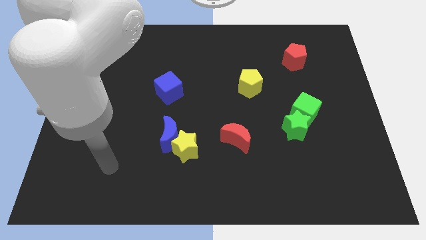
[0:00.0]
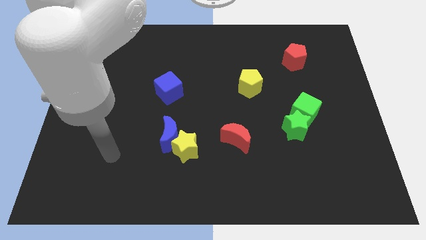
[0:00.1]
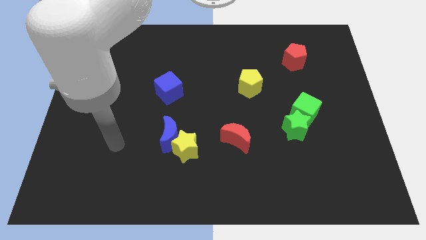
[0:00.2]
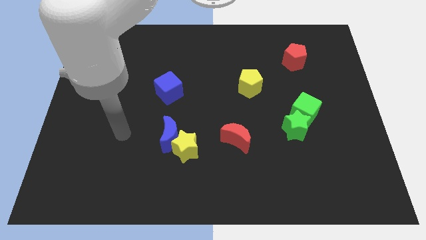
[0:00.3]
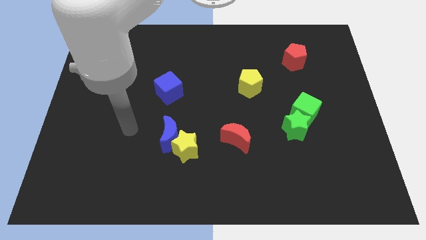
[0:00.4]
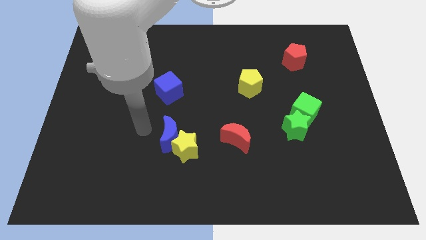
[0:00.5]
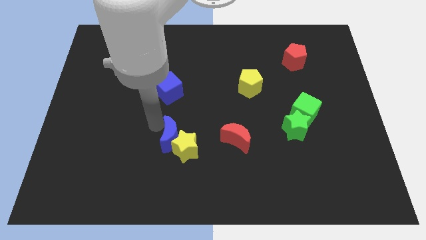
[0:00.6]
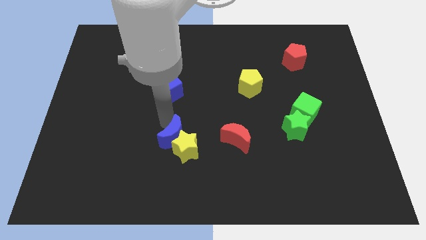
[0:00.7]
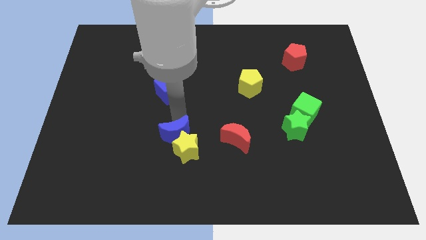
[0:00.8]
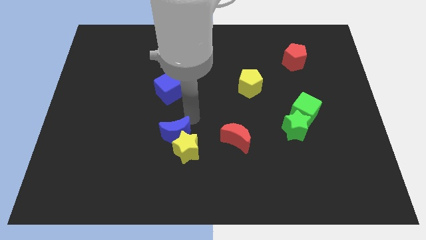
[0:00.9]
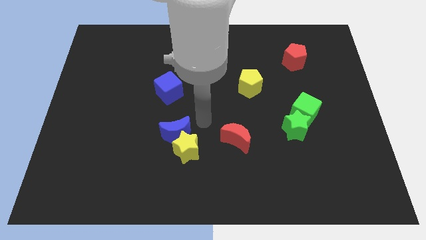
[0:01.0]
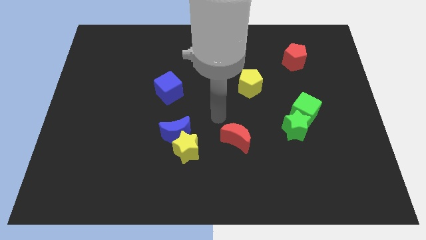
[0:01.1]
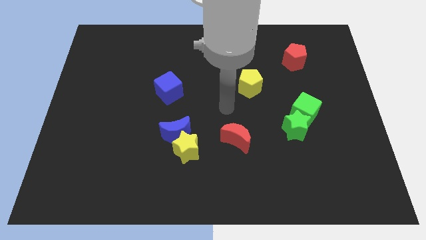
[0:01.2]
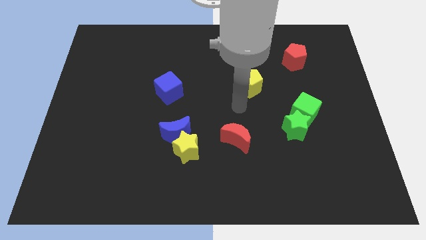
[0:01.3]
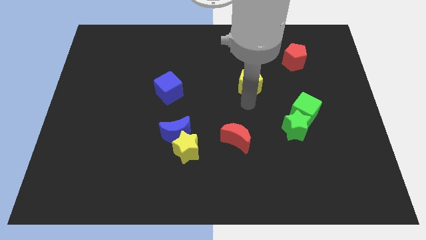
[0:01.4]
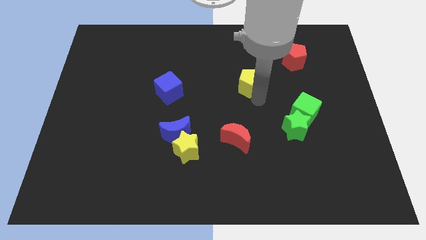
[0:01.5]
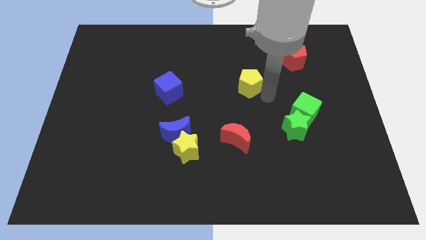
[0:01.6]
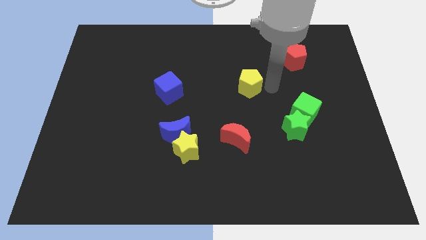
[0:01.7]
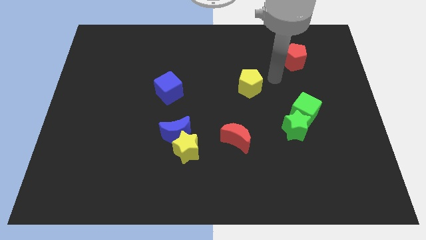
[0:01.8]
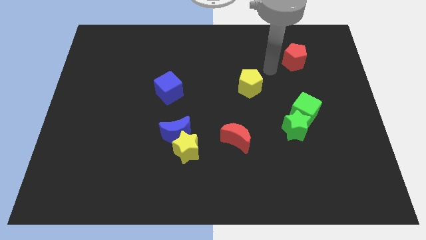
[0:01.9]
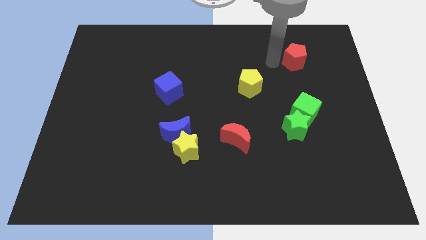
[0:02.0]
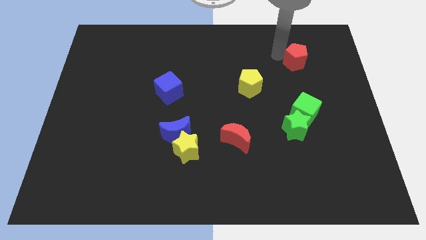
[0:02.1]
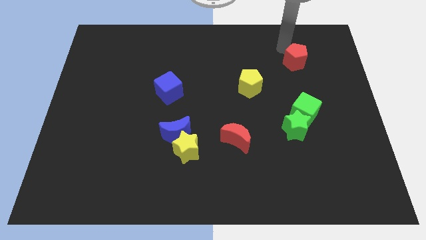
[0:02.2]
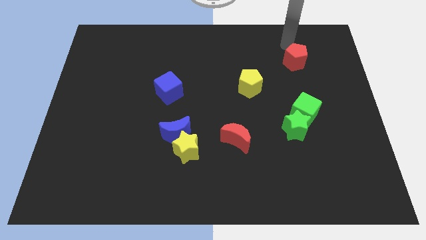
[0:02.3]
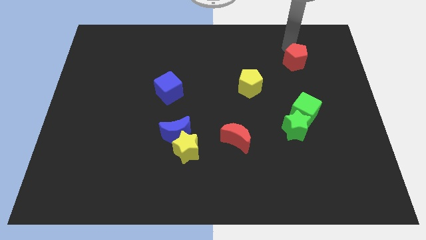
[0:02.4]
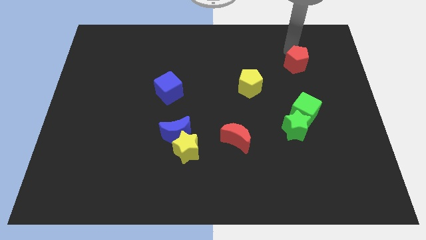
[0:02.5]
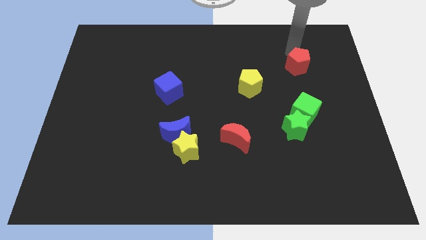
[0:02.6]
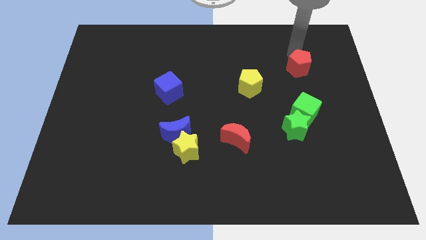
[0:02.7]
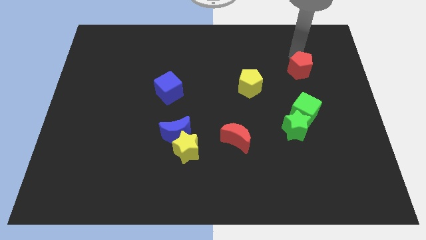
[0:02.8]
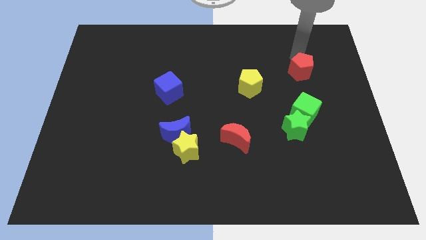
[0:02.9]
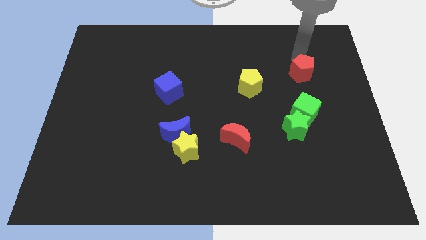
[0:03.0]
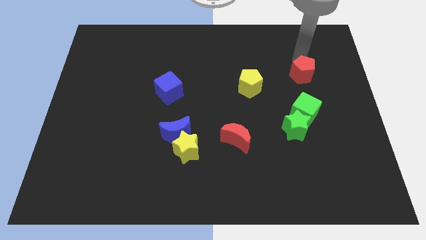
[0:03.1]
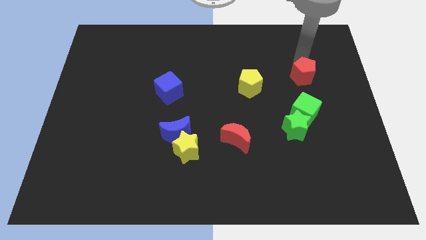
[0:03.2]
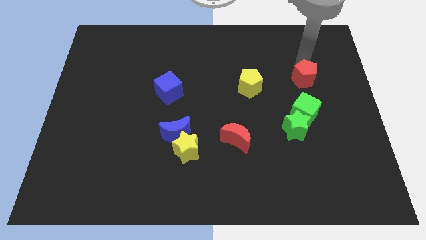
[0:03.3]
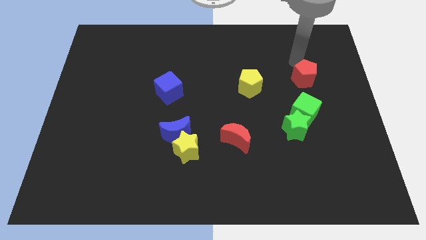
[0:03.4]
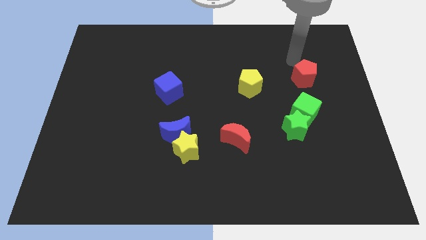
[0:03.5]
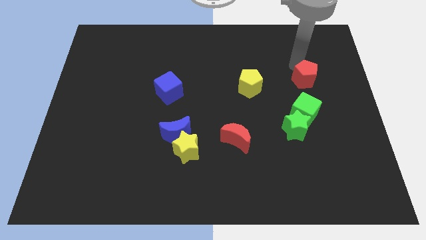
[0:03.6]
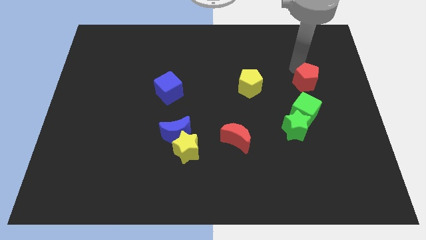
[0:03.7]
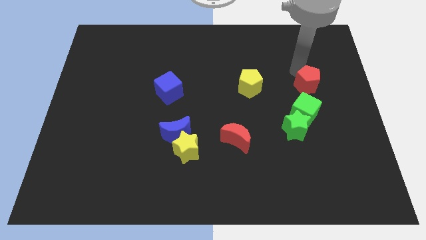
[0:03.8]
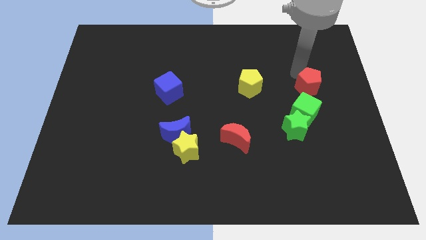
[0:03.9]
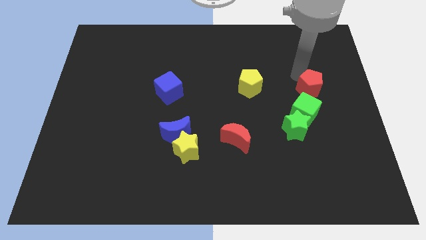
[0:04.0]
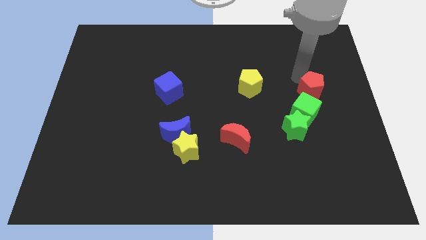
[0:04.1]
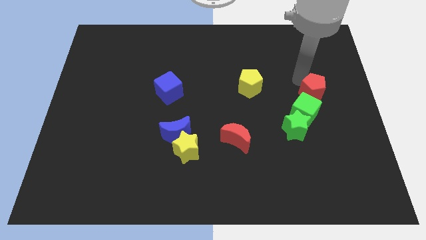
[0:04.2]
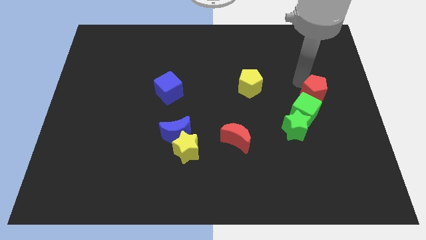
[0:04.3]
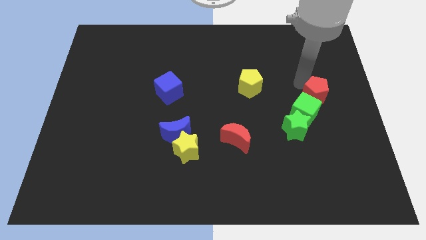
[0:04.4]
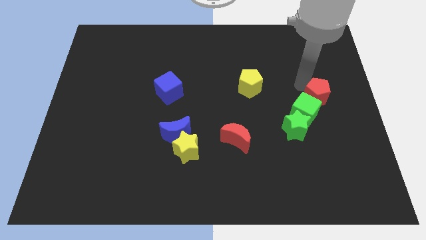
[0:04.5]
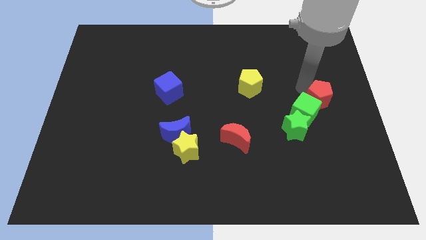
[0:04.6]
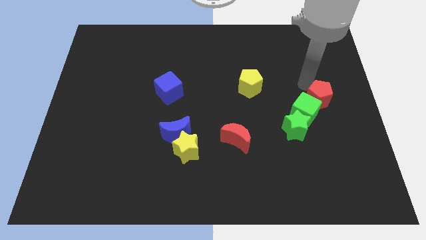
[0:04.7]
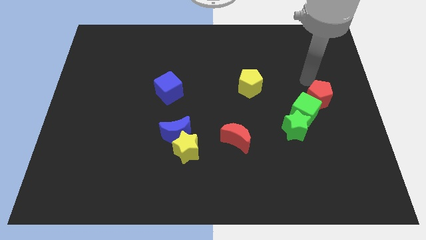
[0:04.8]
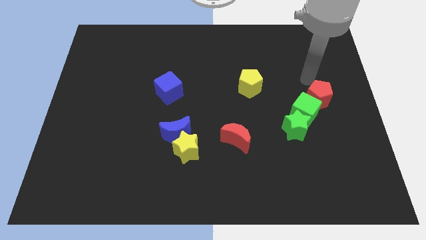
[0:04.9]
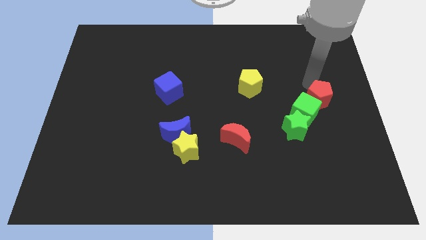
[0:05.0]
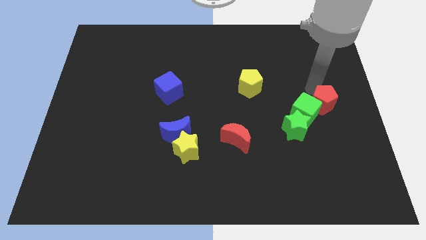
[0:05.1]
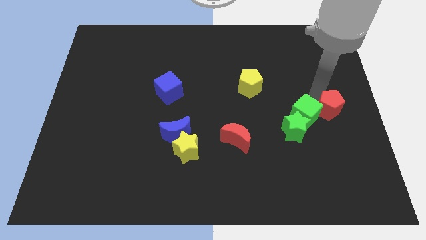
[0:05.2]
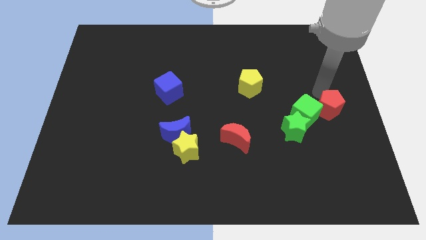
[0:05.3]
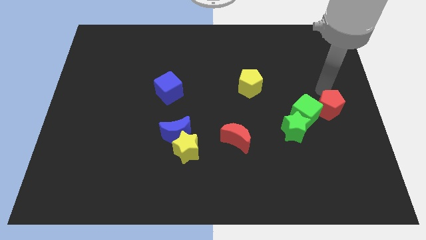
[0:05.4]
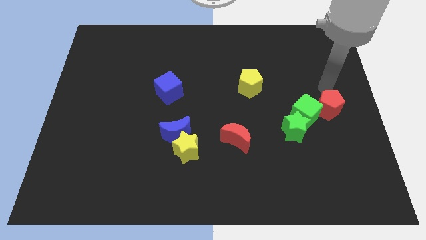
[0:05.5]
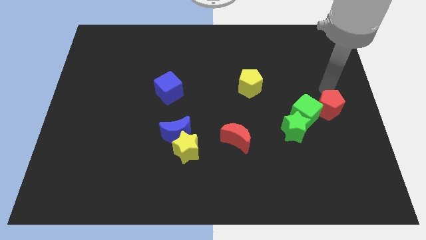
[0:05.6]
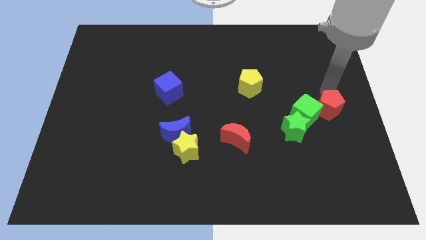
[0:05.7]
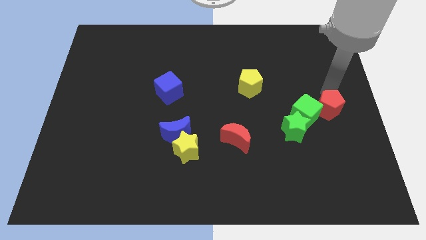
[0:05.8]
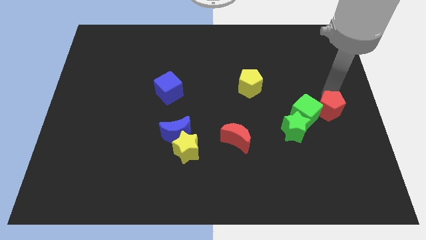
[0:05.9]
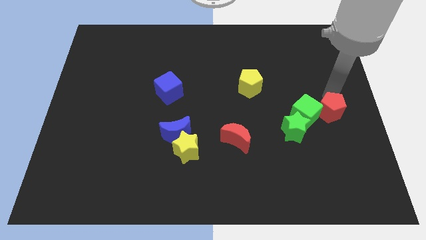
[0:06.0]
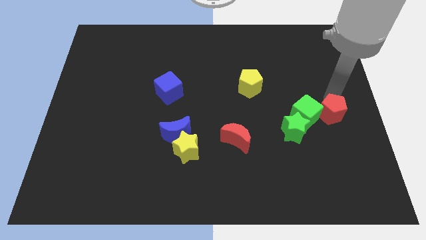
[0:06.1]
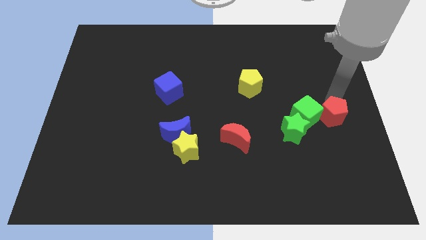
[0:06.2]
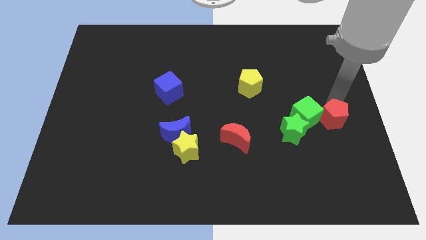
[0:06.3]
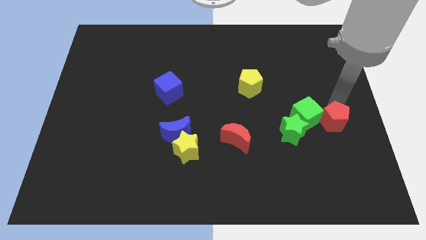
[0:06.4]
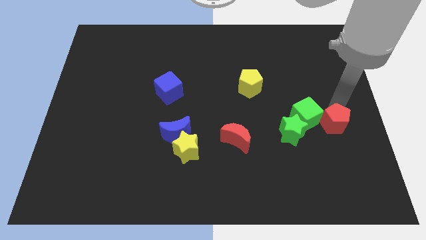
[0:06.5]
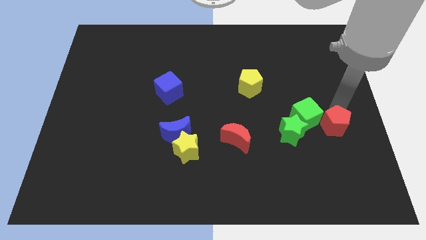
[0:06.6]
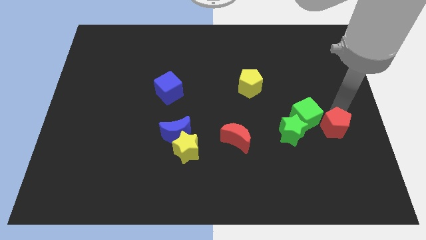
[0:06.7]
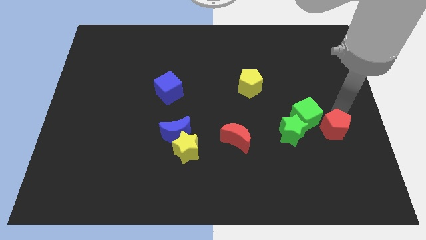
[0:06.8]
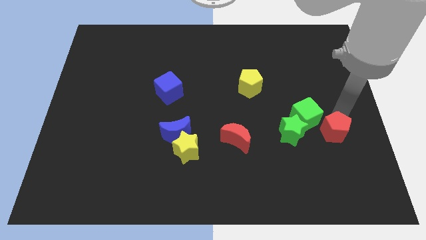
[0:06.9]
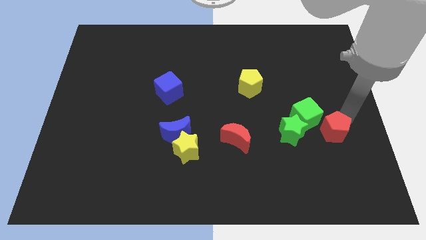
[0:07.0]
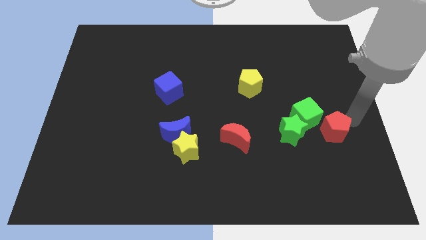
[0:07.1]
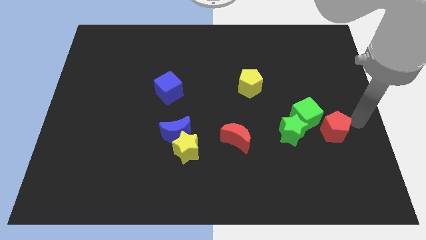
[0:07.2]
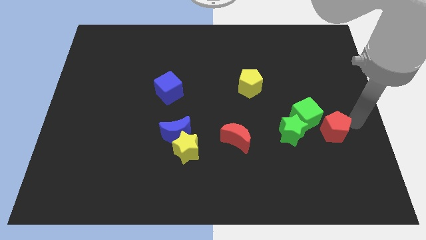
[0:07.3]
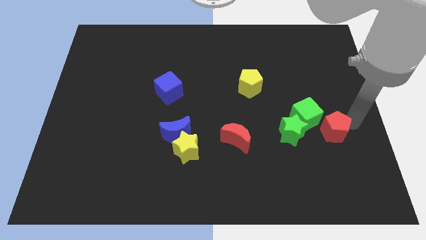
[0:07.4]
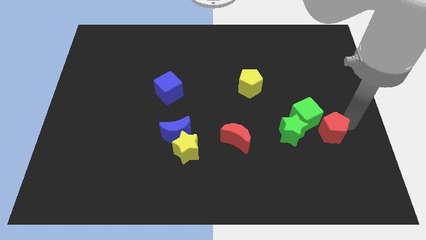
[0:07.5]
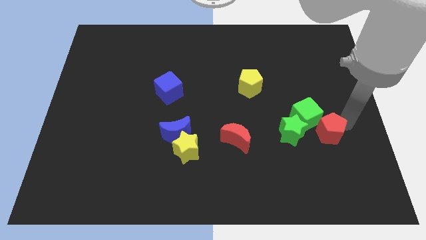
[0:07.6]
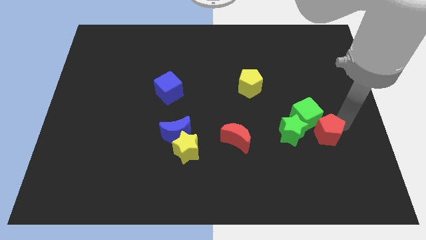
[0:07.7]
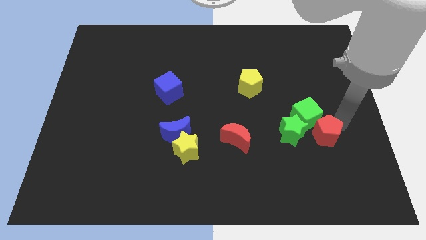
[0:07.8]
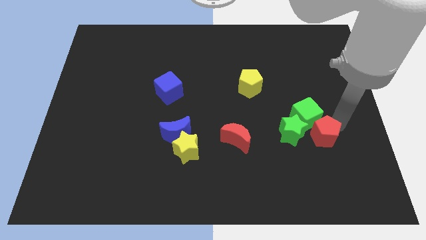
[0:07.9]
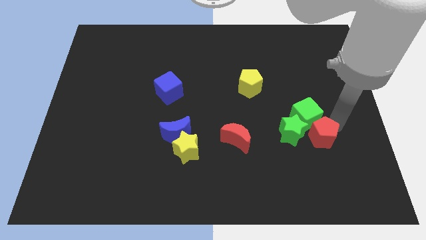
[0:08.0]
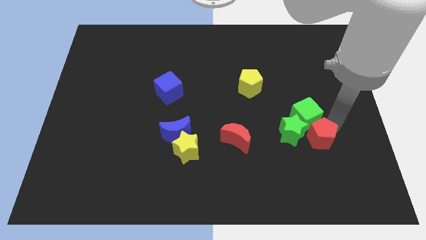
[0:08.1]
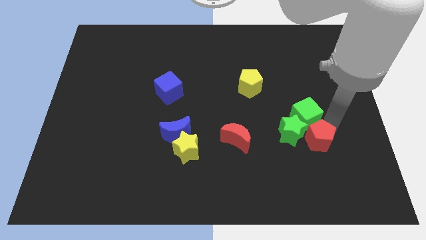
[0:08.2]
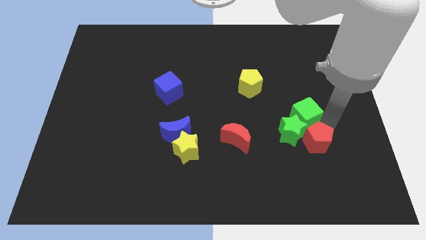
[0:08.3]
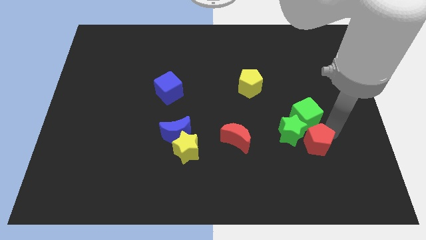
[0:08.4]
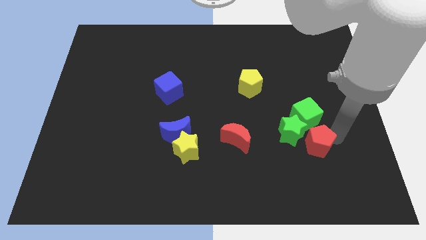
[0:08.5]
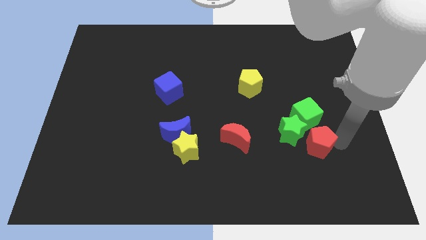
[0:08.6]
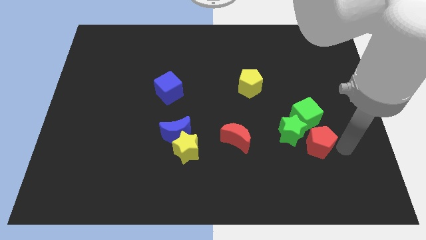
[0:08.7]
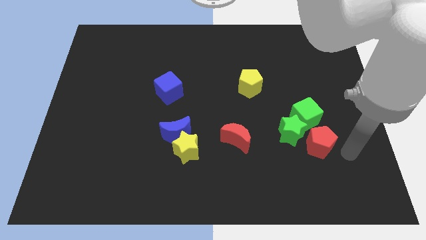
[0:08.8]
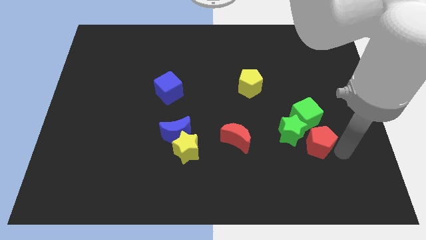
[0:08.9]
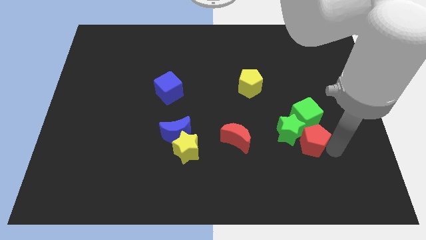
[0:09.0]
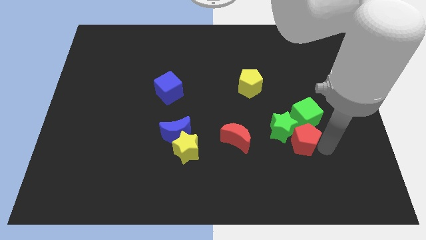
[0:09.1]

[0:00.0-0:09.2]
push the red pentagon diagonally down and to the left of the green cube
